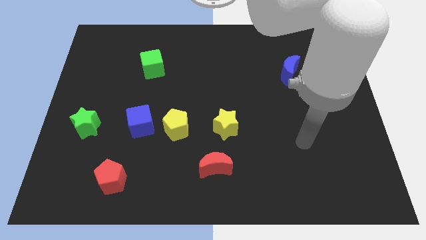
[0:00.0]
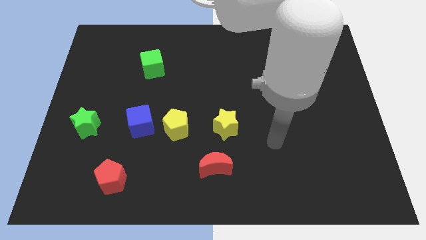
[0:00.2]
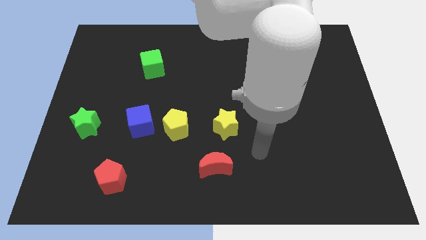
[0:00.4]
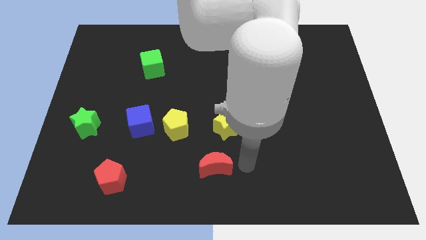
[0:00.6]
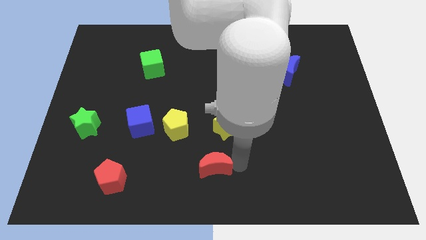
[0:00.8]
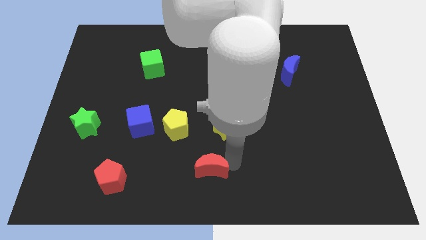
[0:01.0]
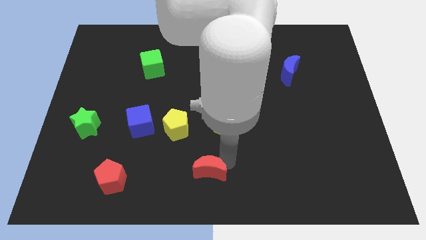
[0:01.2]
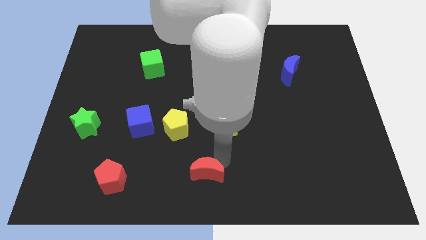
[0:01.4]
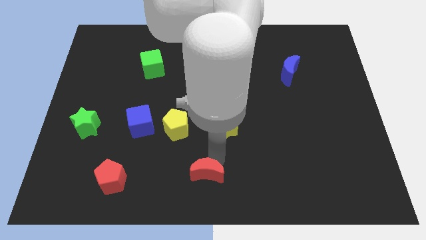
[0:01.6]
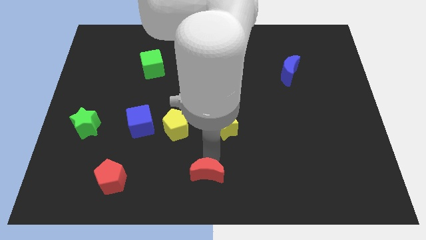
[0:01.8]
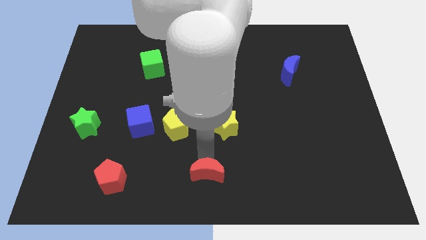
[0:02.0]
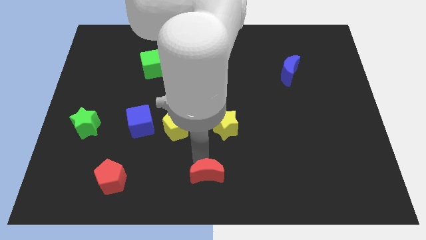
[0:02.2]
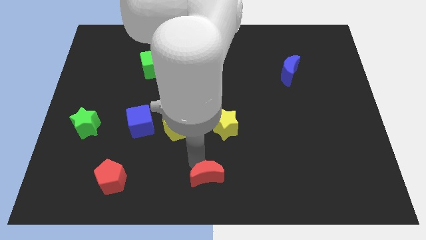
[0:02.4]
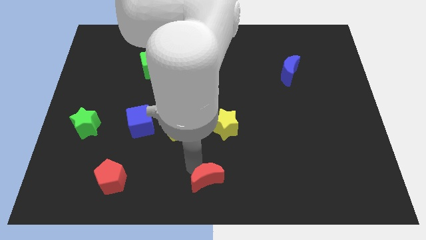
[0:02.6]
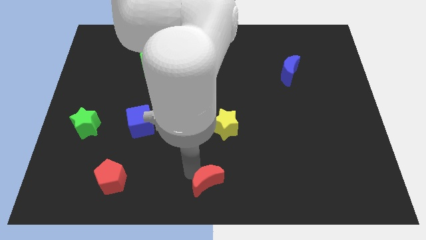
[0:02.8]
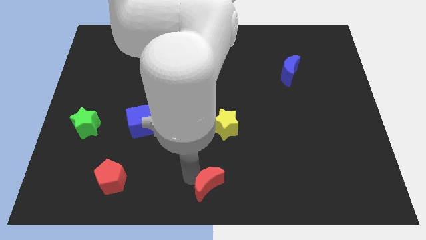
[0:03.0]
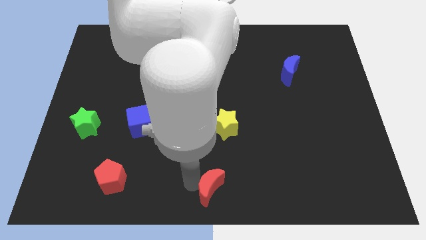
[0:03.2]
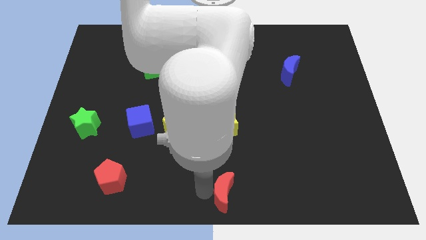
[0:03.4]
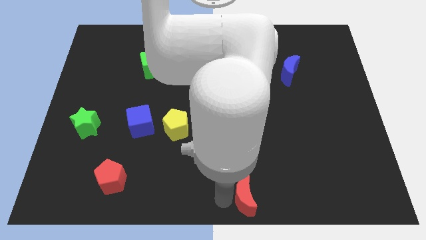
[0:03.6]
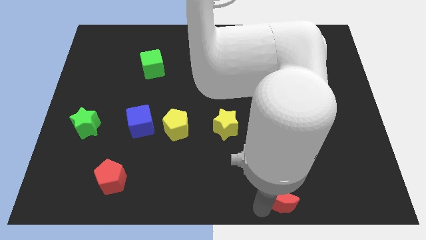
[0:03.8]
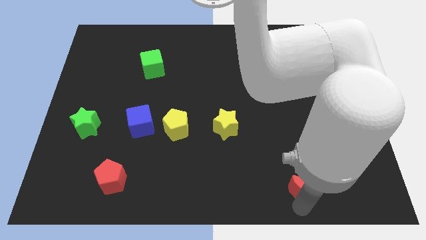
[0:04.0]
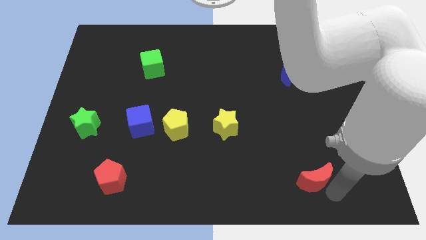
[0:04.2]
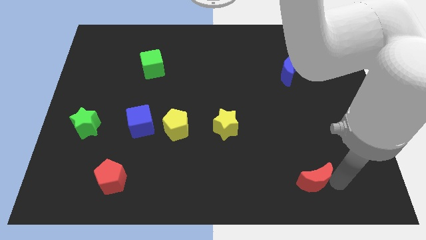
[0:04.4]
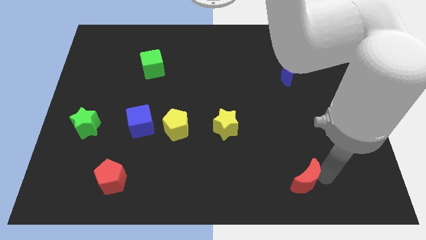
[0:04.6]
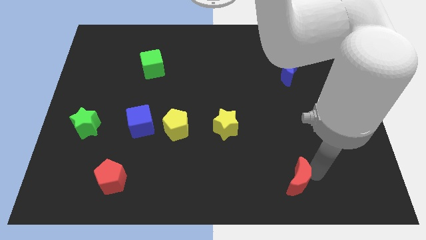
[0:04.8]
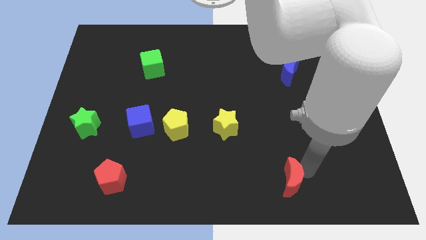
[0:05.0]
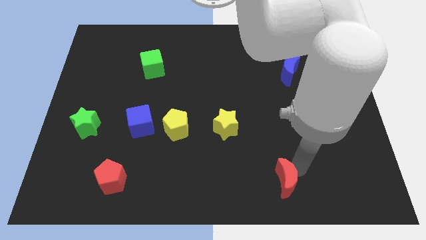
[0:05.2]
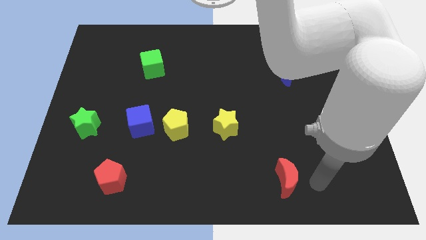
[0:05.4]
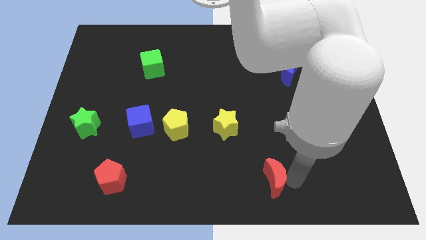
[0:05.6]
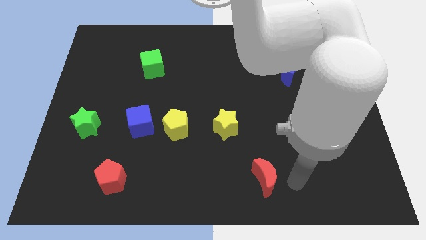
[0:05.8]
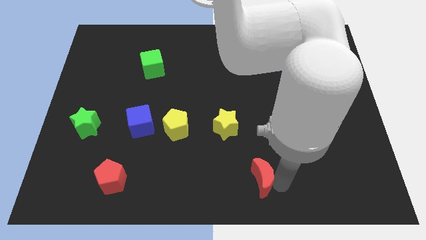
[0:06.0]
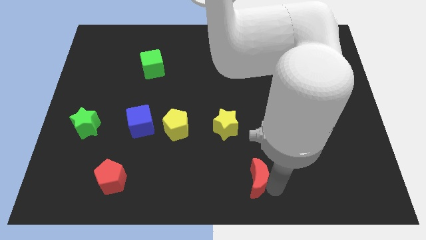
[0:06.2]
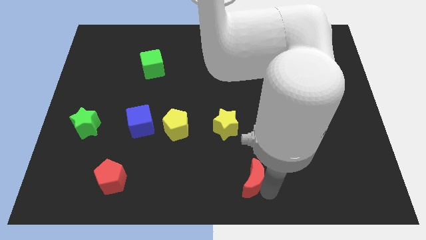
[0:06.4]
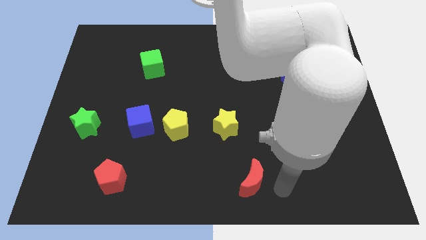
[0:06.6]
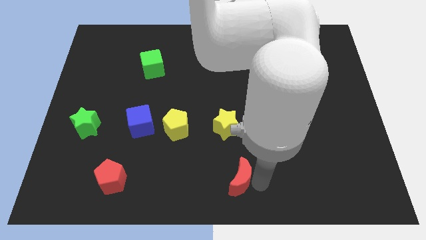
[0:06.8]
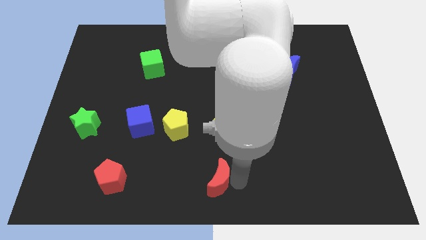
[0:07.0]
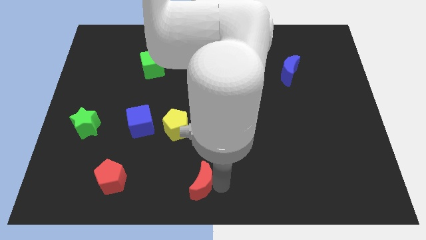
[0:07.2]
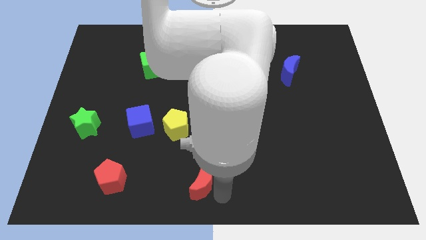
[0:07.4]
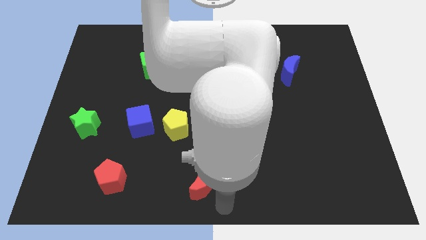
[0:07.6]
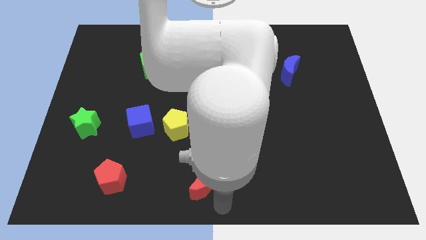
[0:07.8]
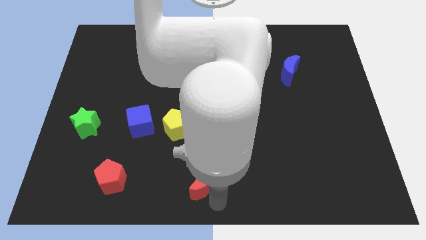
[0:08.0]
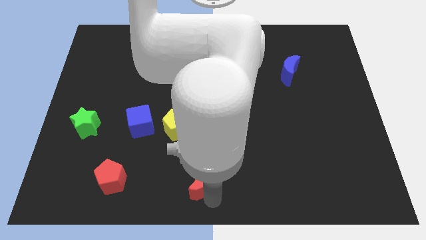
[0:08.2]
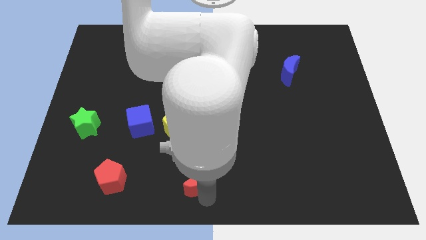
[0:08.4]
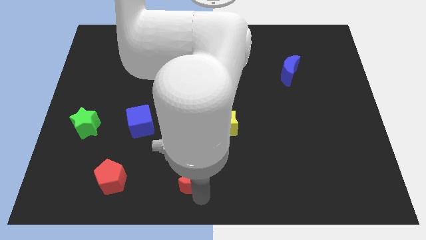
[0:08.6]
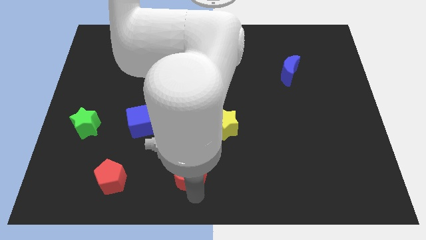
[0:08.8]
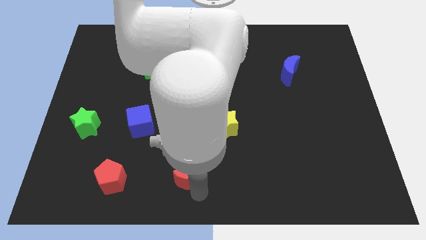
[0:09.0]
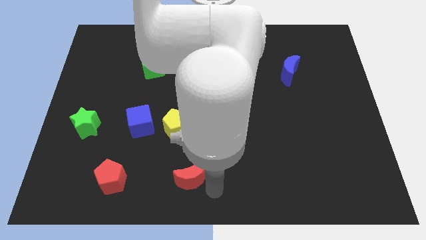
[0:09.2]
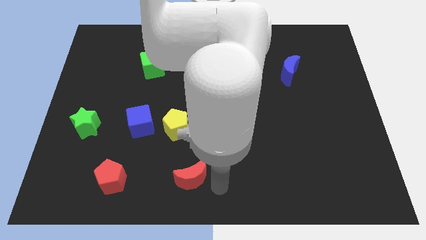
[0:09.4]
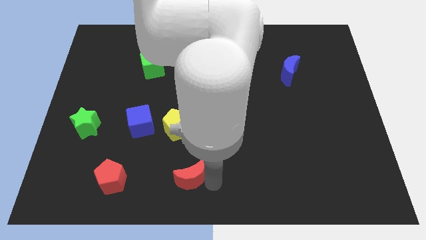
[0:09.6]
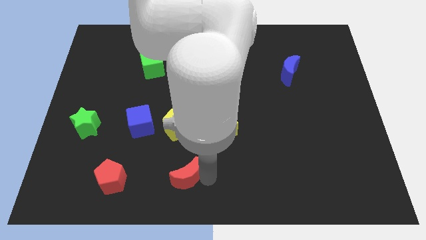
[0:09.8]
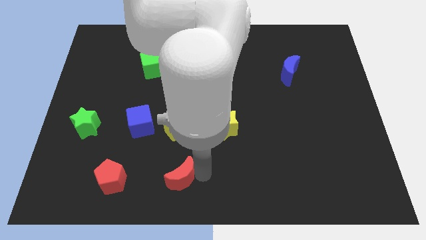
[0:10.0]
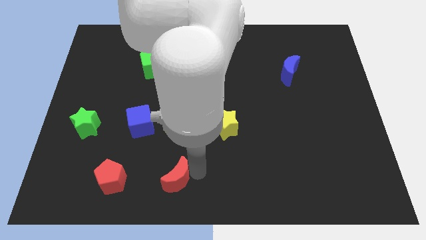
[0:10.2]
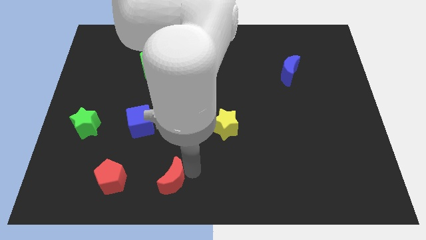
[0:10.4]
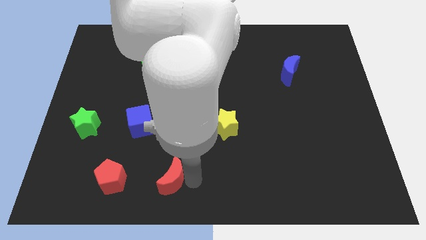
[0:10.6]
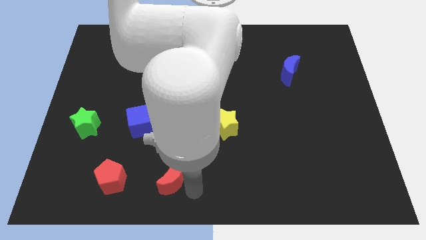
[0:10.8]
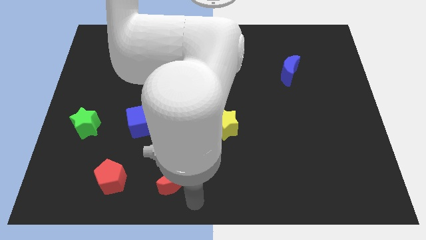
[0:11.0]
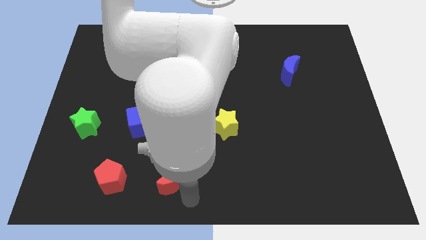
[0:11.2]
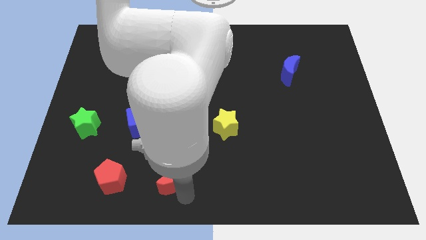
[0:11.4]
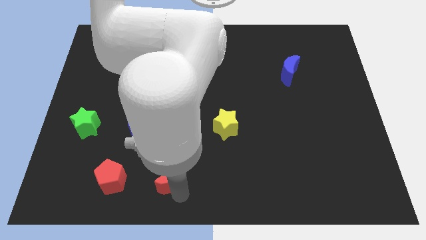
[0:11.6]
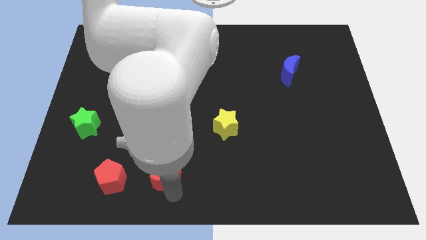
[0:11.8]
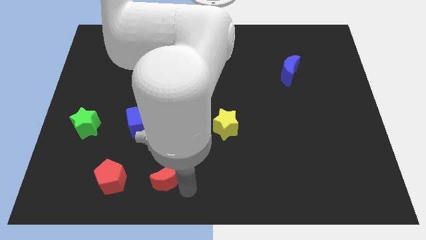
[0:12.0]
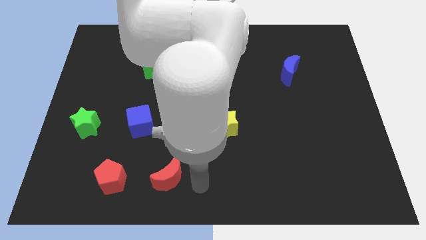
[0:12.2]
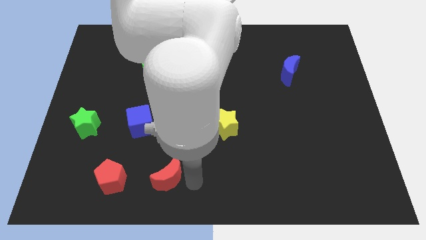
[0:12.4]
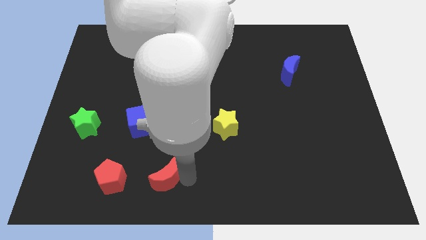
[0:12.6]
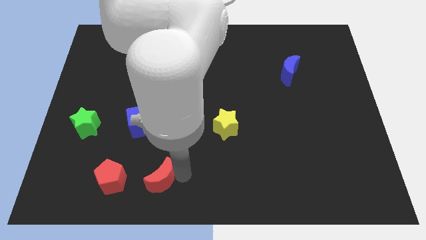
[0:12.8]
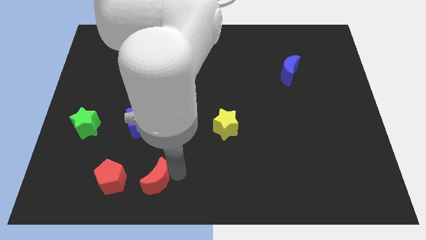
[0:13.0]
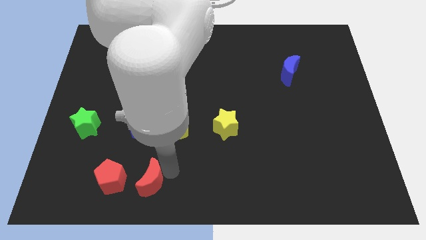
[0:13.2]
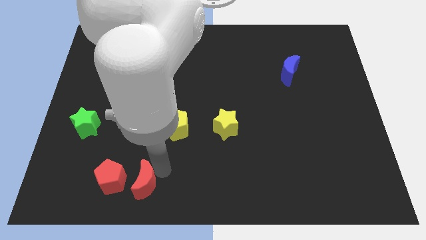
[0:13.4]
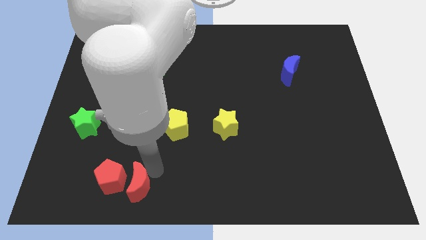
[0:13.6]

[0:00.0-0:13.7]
move the red moon close to the red pentagon

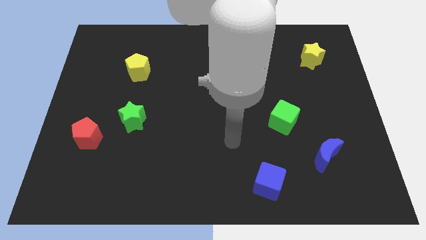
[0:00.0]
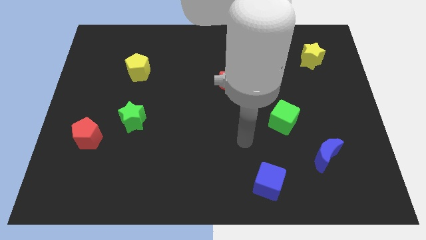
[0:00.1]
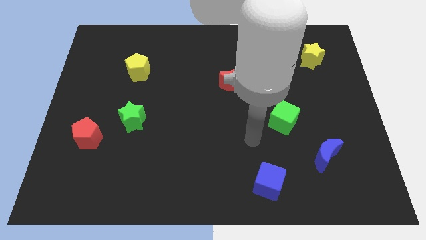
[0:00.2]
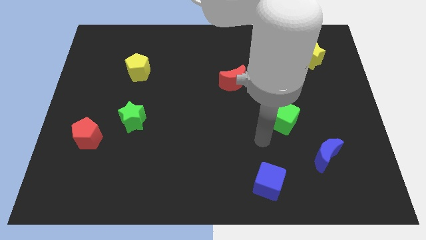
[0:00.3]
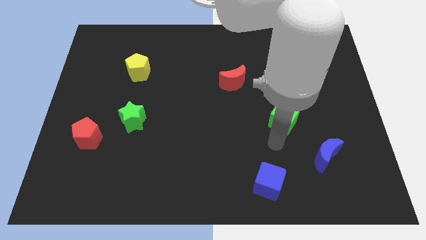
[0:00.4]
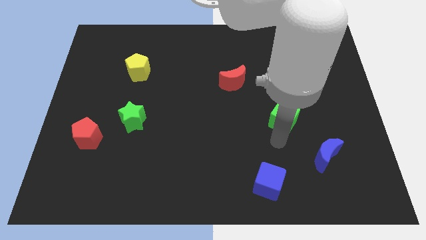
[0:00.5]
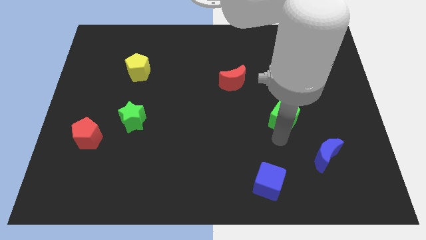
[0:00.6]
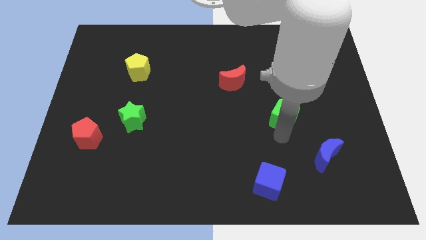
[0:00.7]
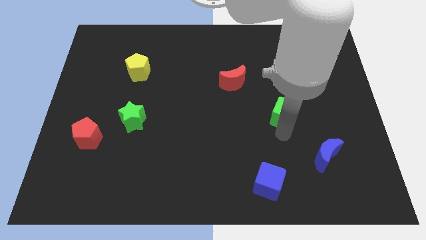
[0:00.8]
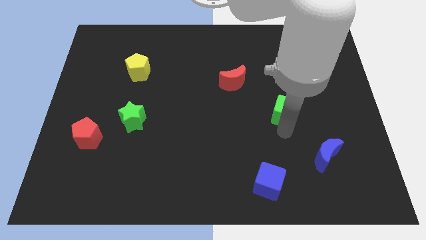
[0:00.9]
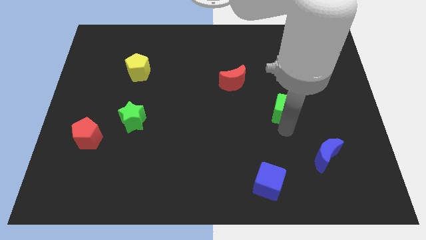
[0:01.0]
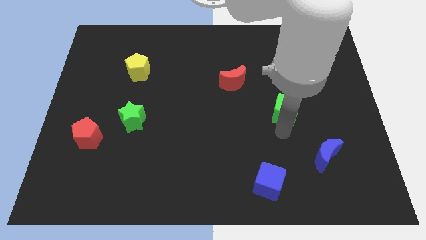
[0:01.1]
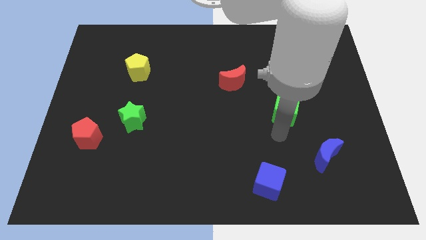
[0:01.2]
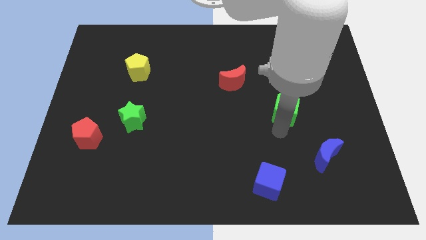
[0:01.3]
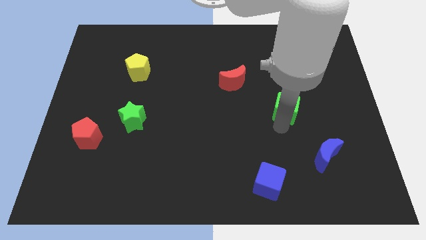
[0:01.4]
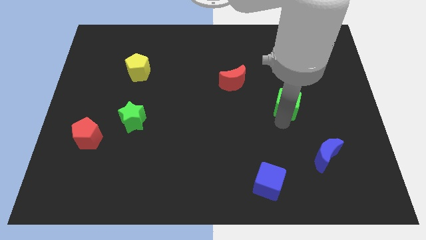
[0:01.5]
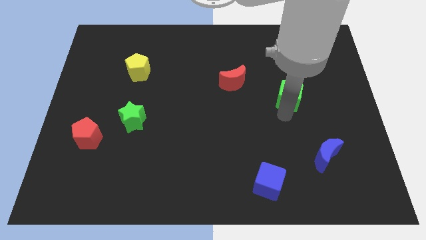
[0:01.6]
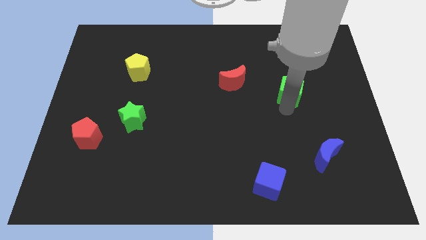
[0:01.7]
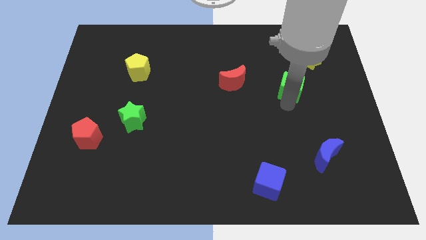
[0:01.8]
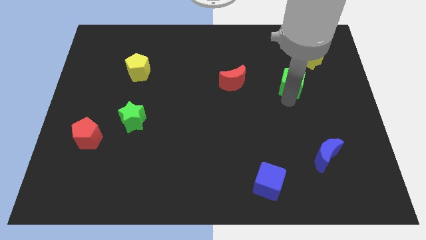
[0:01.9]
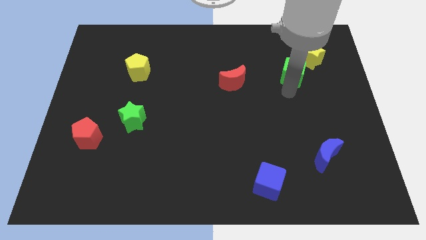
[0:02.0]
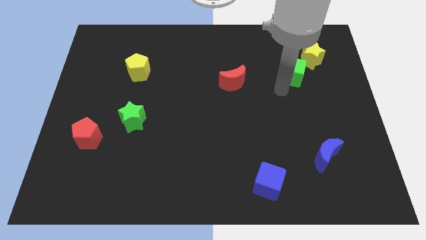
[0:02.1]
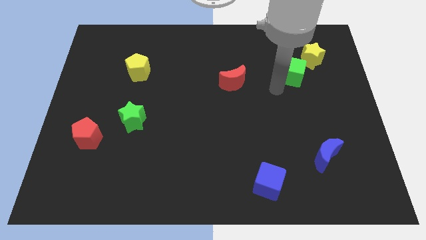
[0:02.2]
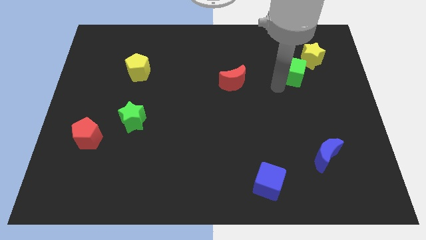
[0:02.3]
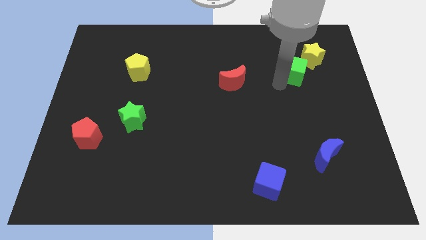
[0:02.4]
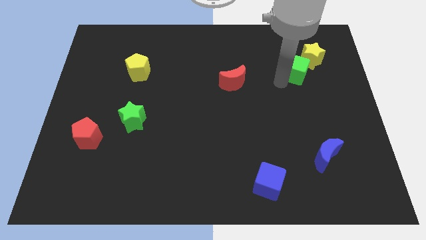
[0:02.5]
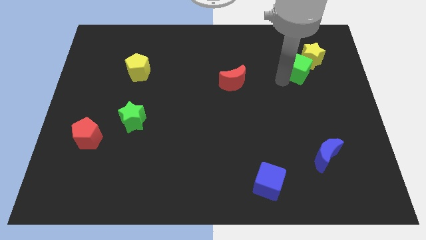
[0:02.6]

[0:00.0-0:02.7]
put the green cube next to the yellow star
